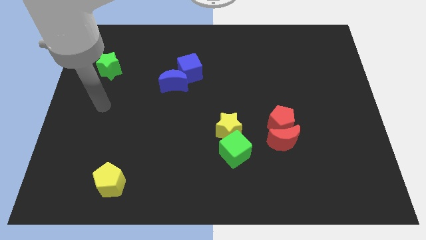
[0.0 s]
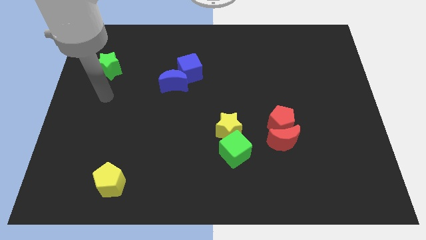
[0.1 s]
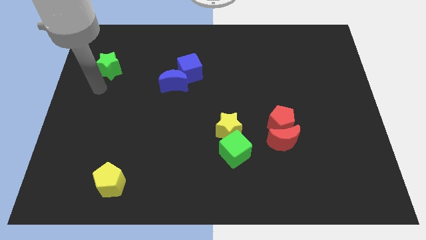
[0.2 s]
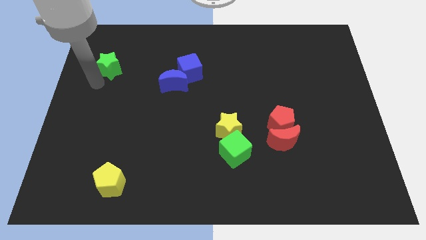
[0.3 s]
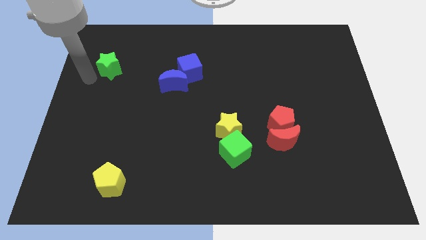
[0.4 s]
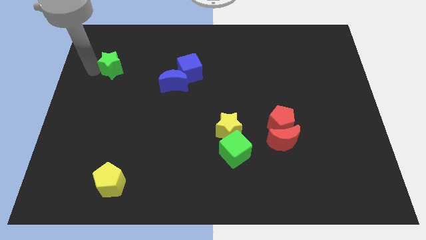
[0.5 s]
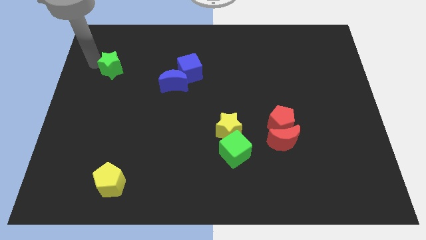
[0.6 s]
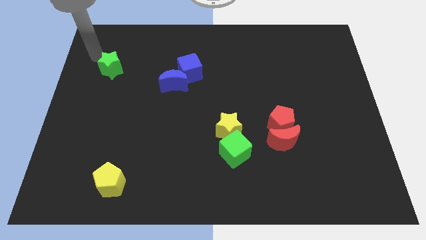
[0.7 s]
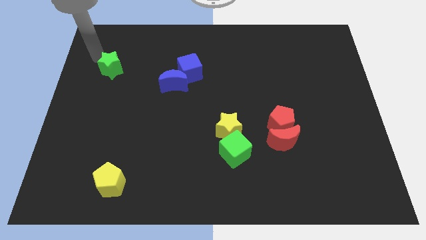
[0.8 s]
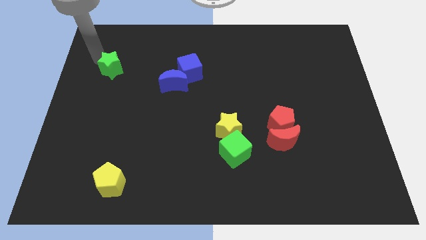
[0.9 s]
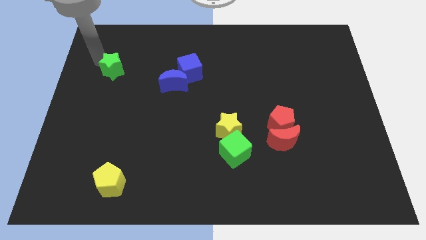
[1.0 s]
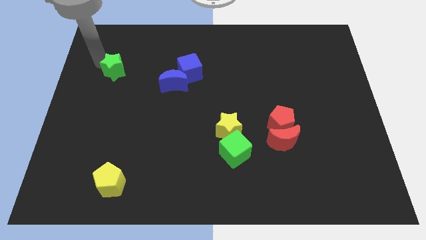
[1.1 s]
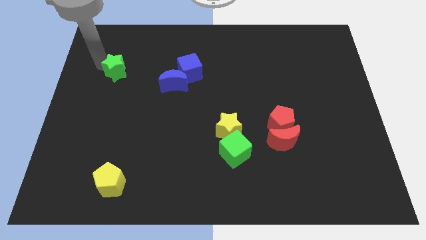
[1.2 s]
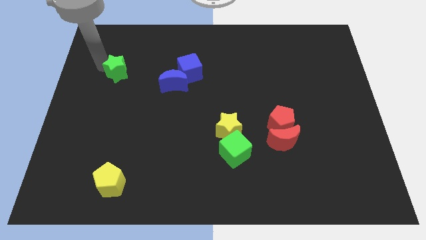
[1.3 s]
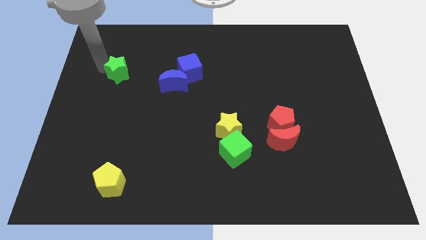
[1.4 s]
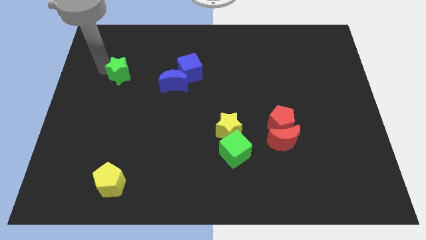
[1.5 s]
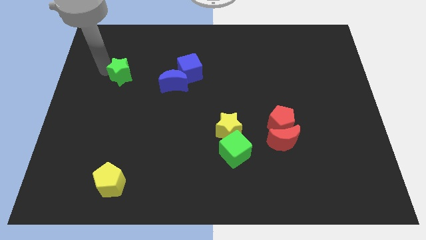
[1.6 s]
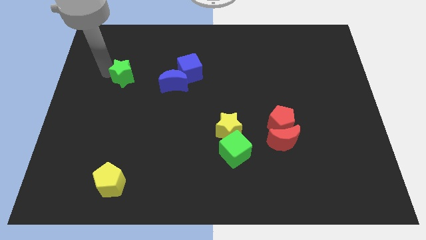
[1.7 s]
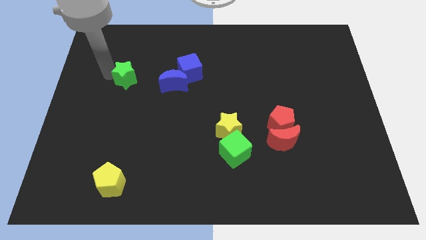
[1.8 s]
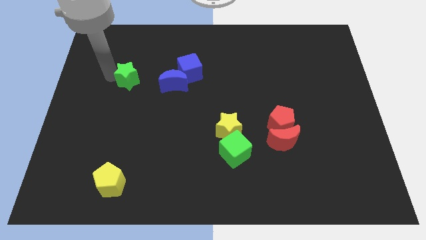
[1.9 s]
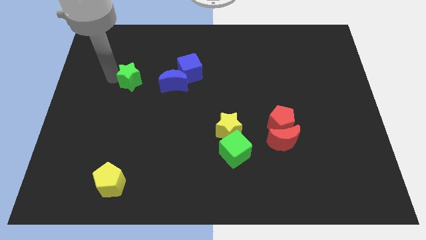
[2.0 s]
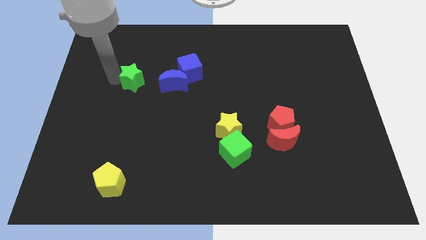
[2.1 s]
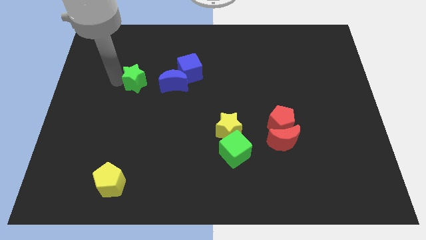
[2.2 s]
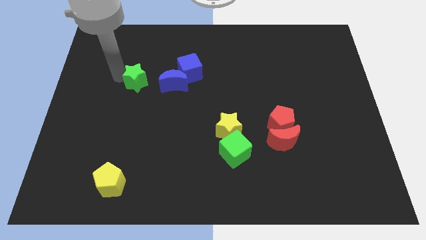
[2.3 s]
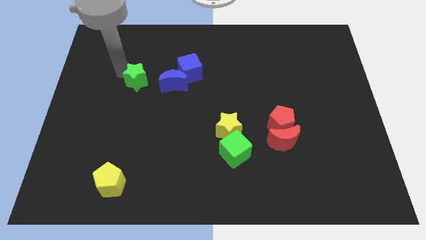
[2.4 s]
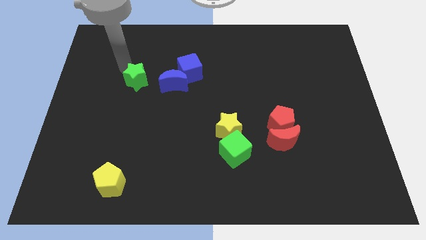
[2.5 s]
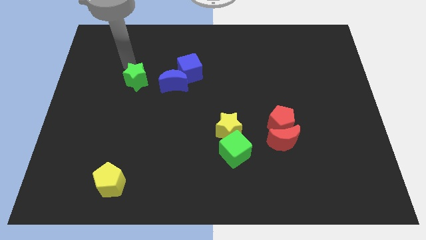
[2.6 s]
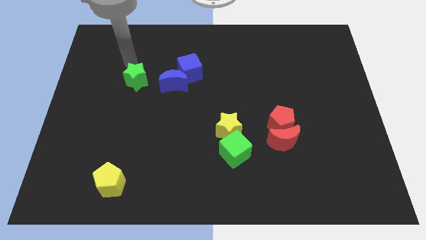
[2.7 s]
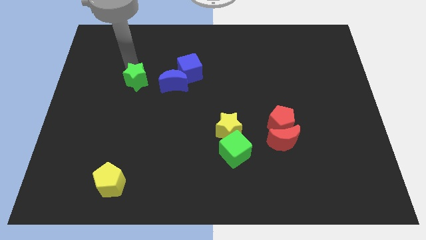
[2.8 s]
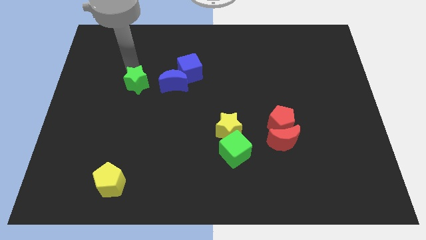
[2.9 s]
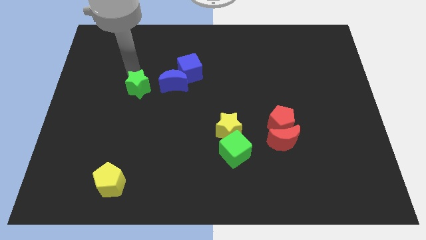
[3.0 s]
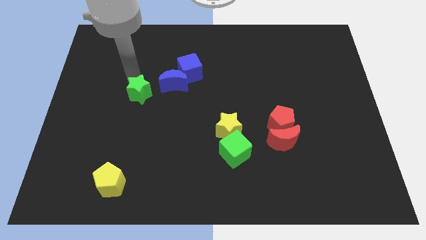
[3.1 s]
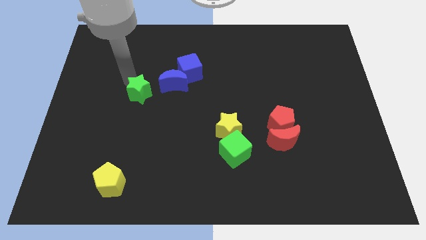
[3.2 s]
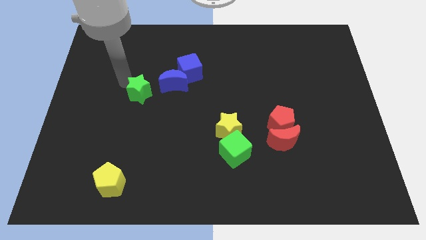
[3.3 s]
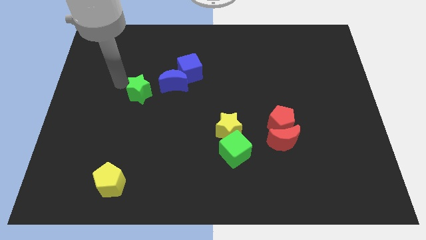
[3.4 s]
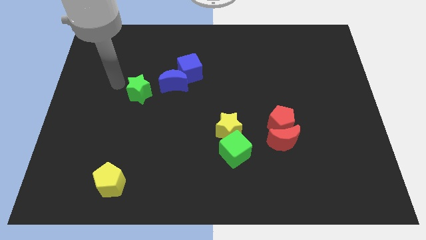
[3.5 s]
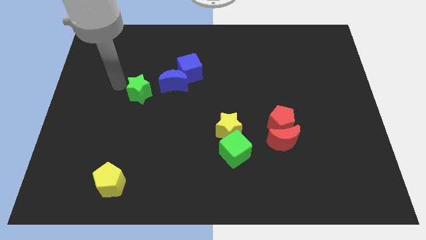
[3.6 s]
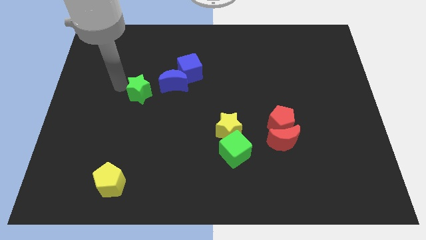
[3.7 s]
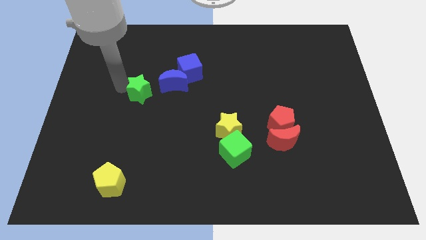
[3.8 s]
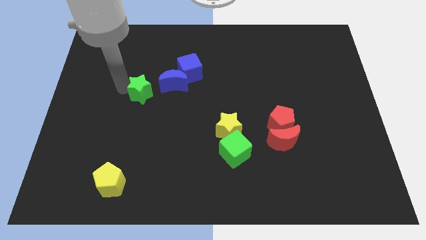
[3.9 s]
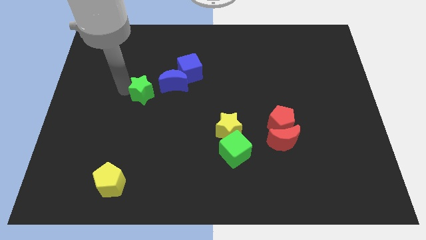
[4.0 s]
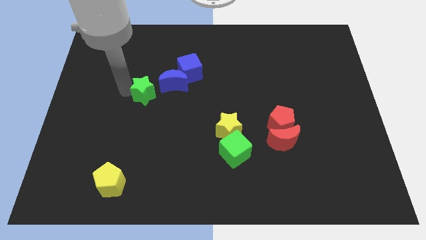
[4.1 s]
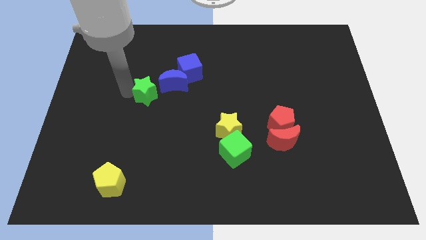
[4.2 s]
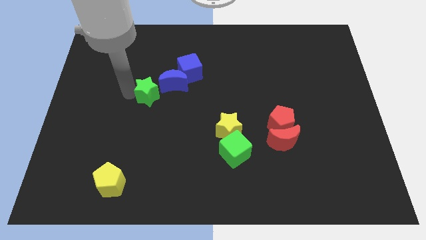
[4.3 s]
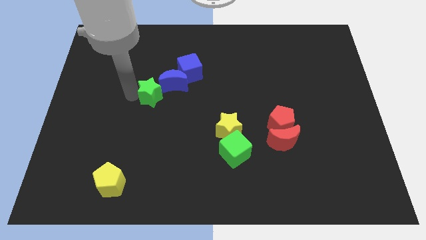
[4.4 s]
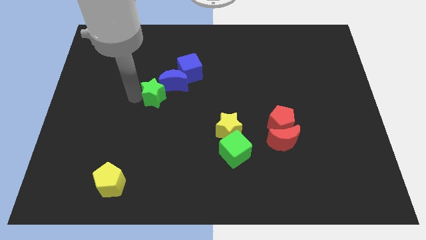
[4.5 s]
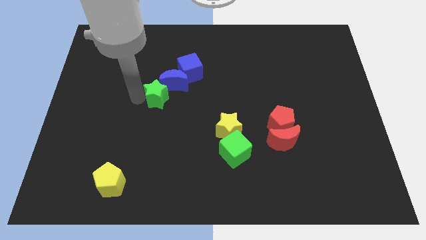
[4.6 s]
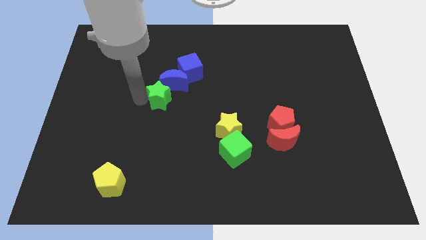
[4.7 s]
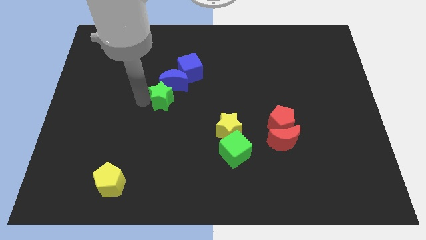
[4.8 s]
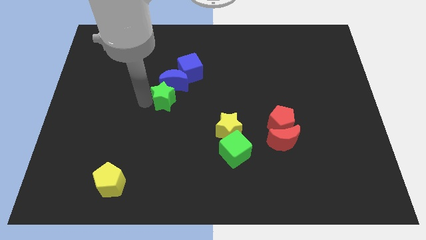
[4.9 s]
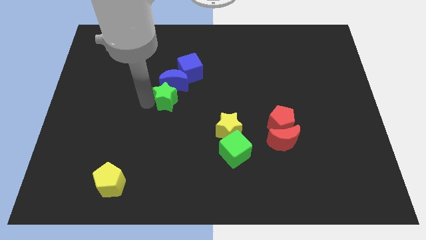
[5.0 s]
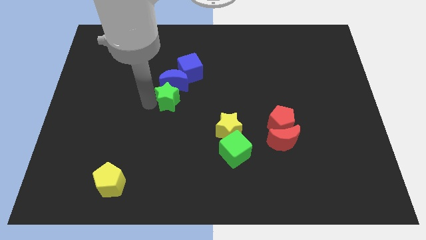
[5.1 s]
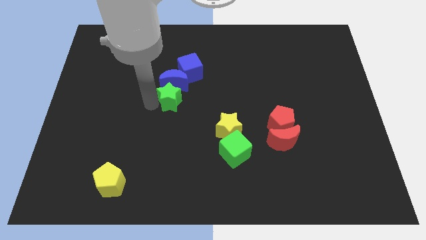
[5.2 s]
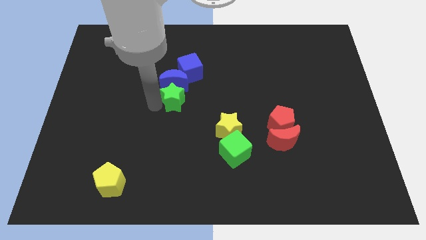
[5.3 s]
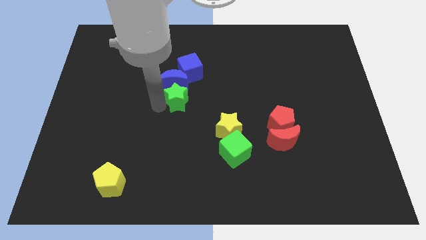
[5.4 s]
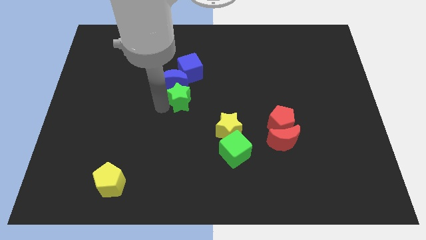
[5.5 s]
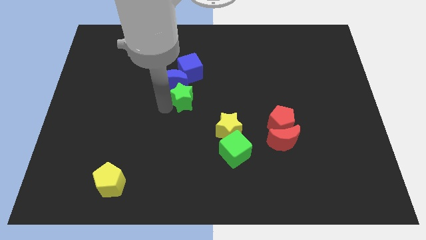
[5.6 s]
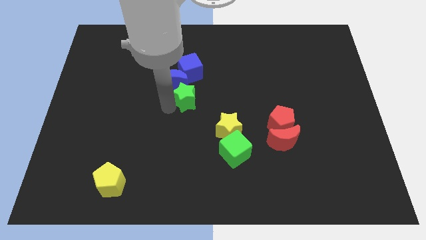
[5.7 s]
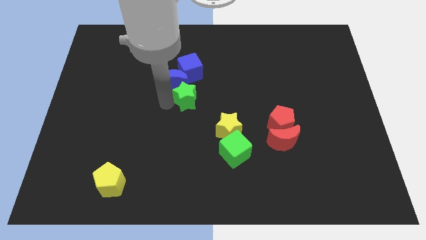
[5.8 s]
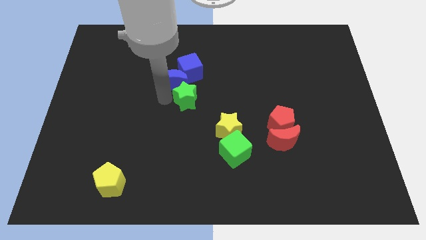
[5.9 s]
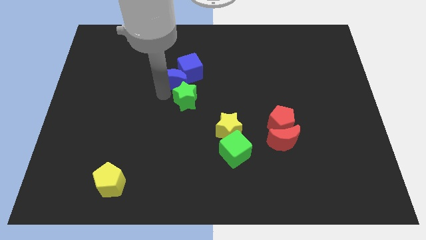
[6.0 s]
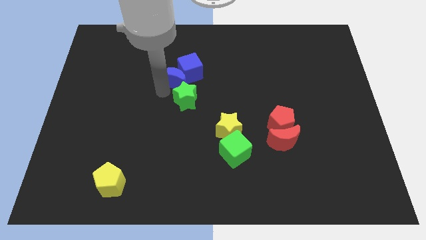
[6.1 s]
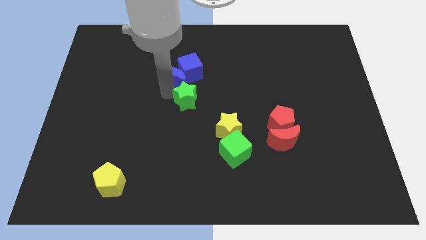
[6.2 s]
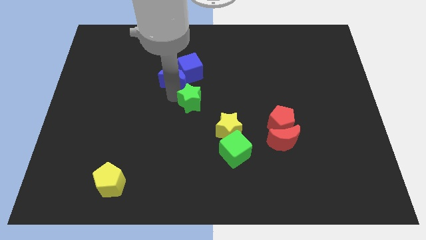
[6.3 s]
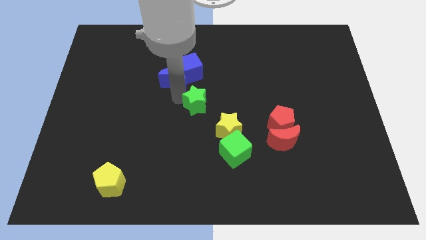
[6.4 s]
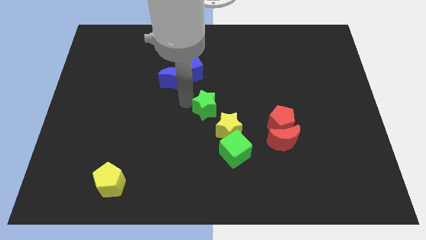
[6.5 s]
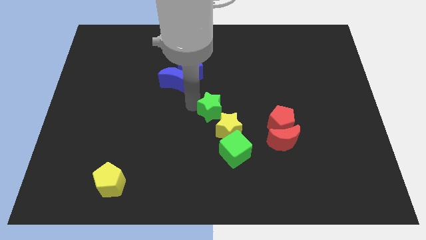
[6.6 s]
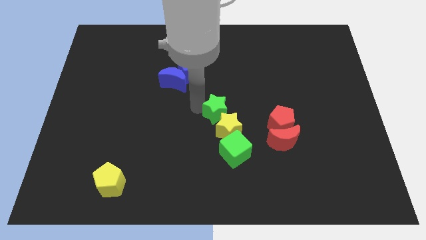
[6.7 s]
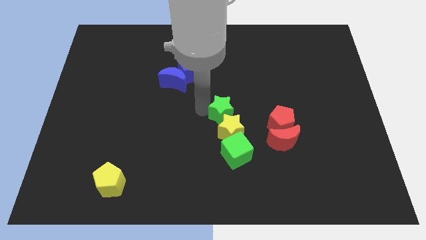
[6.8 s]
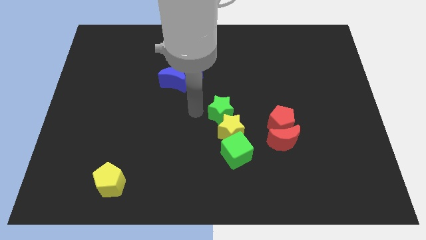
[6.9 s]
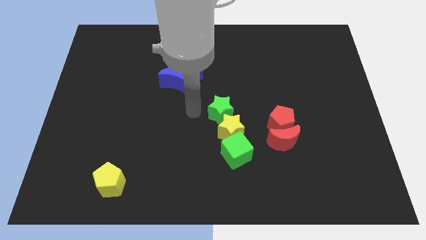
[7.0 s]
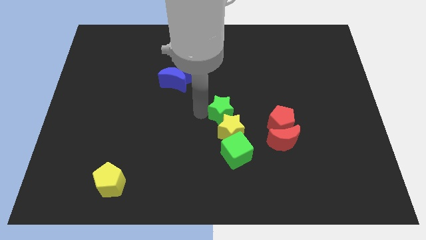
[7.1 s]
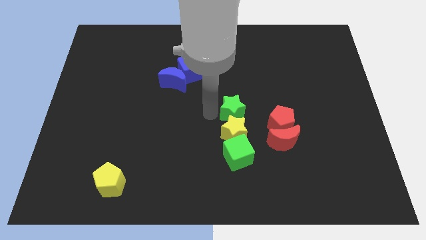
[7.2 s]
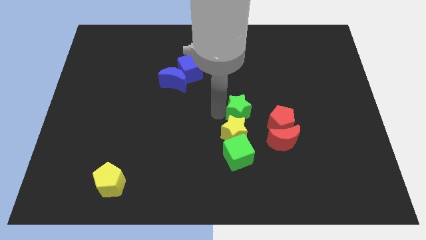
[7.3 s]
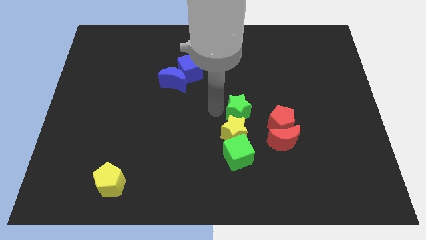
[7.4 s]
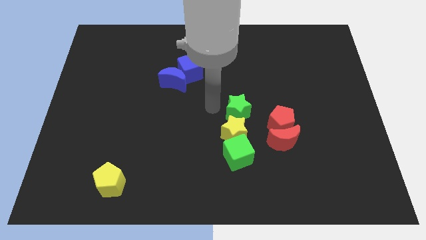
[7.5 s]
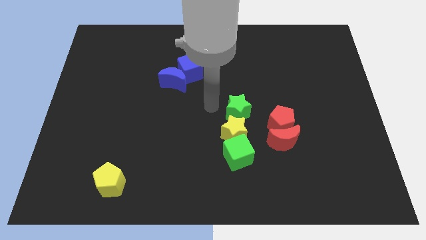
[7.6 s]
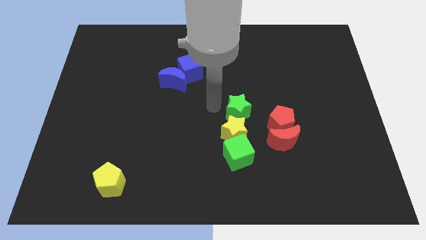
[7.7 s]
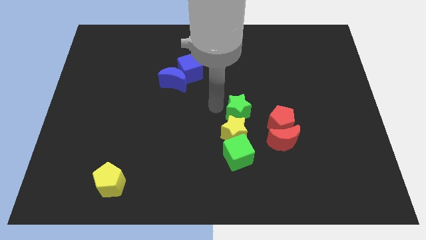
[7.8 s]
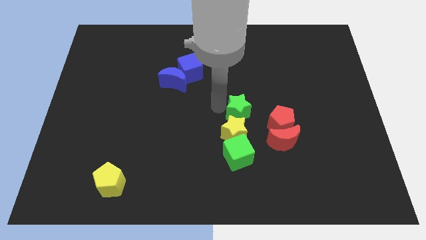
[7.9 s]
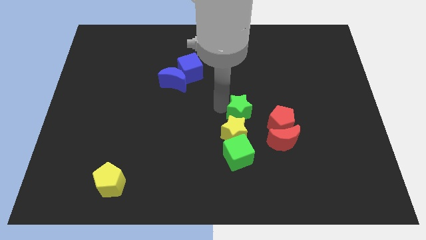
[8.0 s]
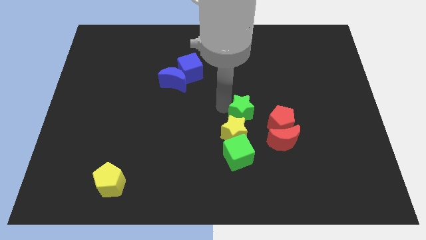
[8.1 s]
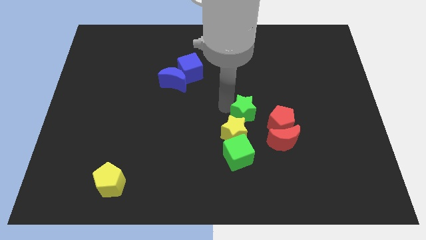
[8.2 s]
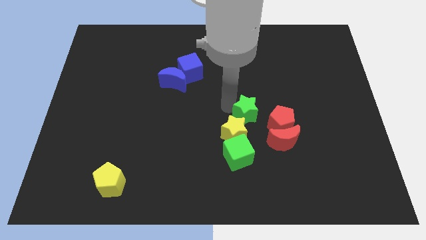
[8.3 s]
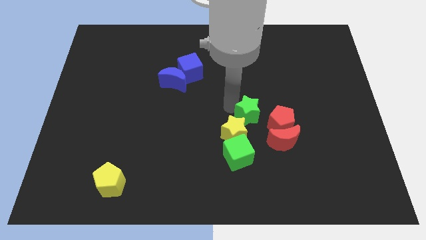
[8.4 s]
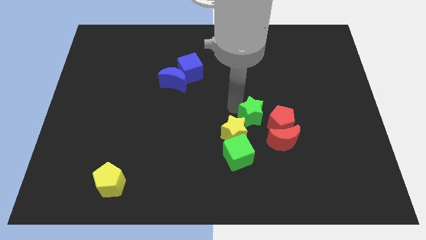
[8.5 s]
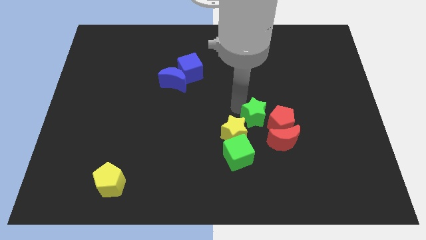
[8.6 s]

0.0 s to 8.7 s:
slide the green star close to the red pentagon
